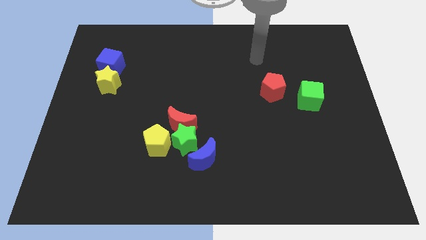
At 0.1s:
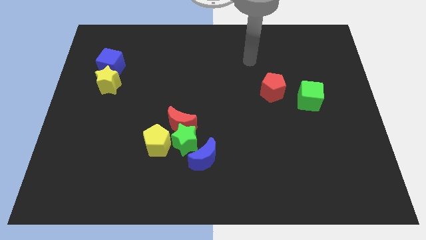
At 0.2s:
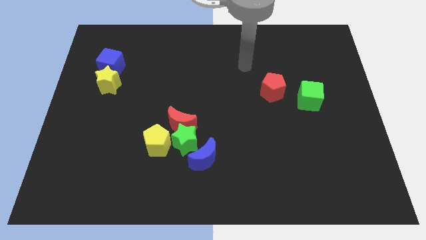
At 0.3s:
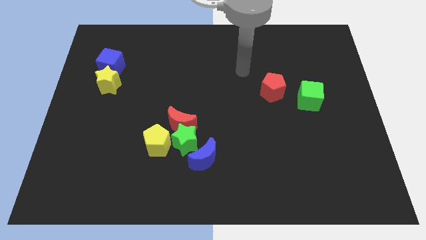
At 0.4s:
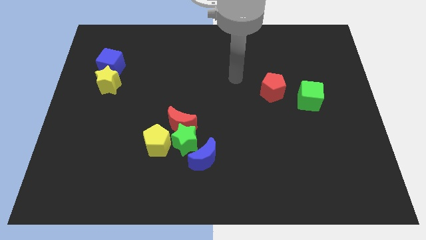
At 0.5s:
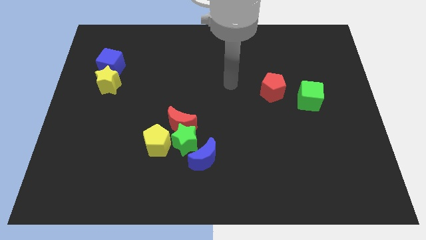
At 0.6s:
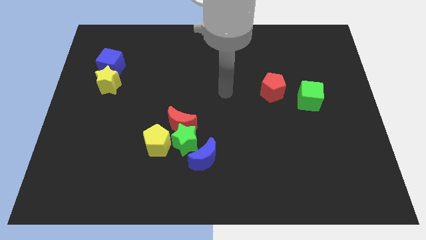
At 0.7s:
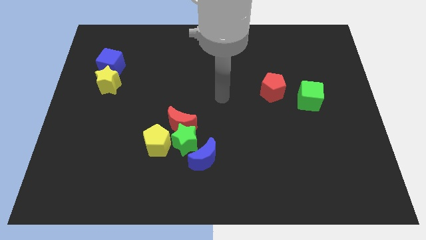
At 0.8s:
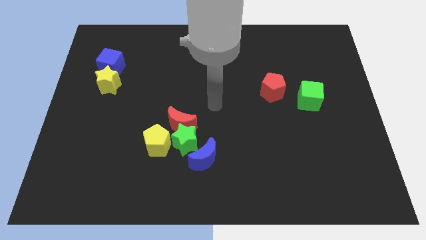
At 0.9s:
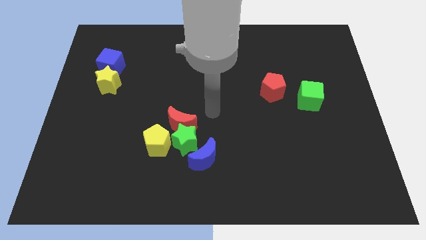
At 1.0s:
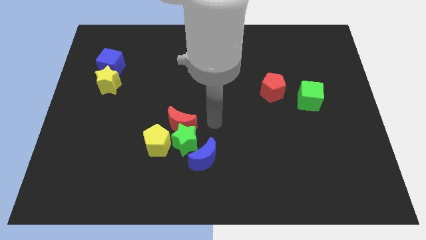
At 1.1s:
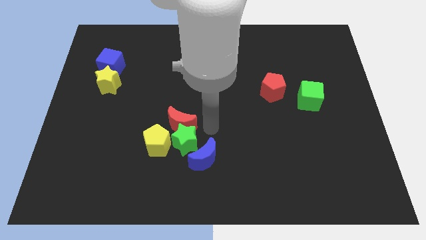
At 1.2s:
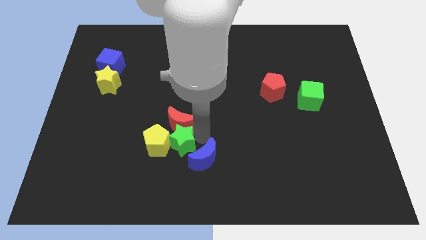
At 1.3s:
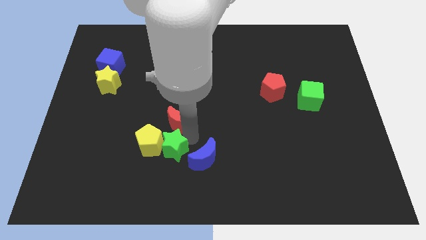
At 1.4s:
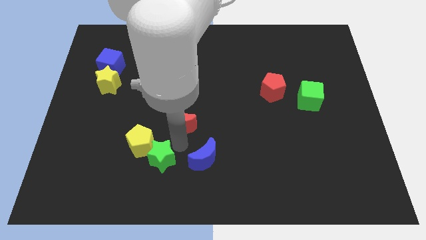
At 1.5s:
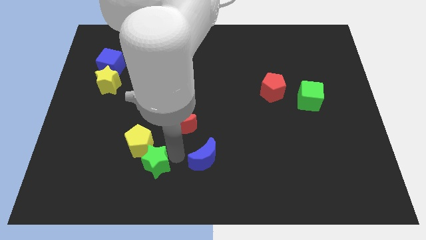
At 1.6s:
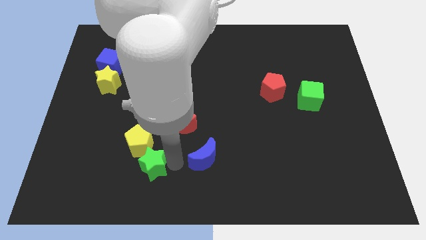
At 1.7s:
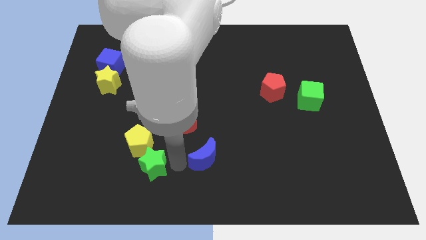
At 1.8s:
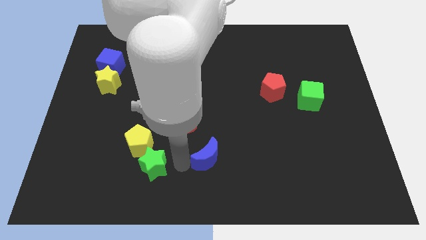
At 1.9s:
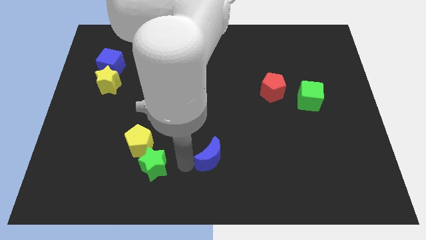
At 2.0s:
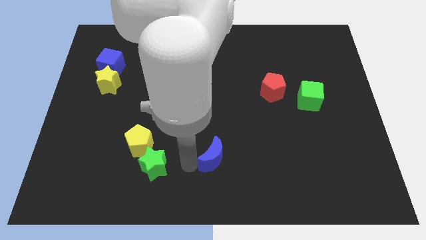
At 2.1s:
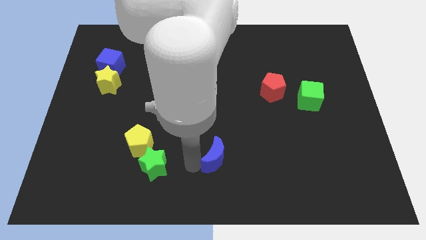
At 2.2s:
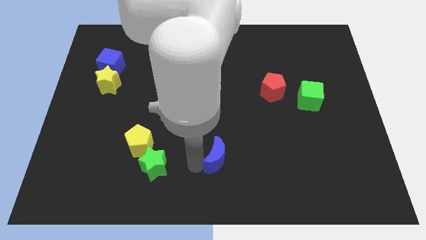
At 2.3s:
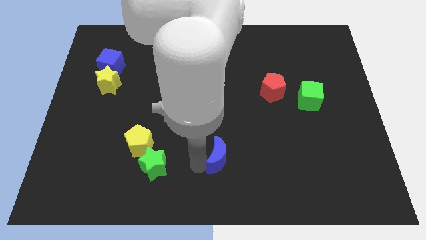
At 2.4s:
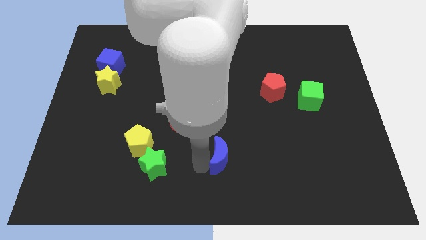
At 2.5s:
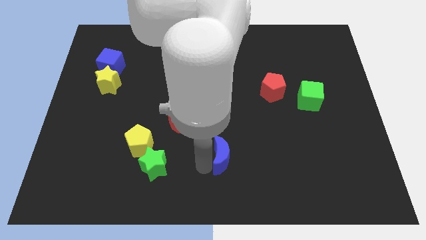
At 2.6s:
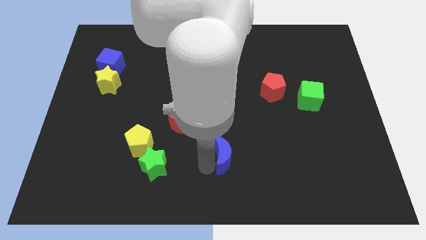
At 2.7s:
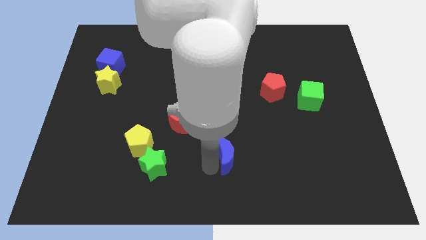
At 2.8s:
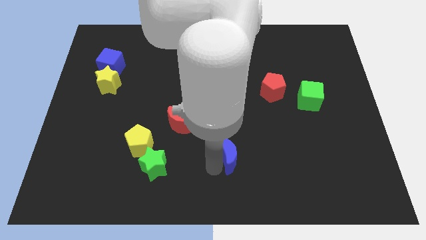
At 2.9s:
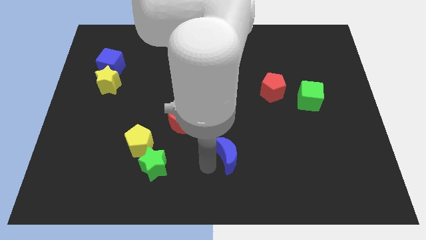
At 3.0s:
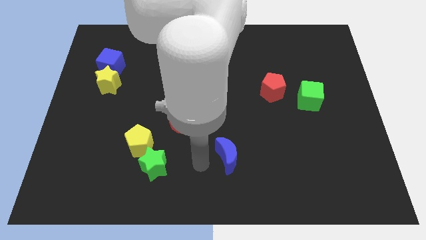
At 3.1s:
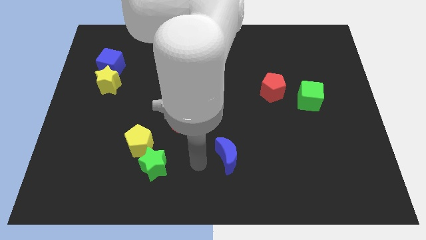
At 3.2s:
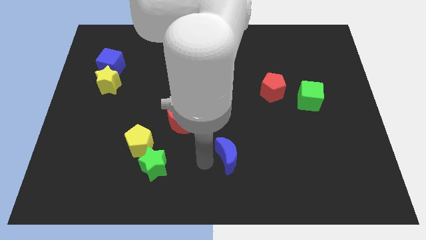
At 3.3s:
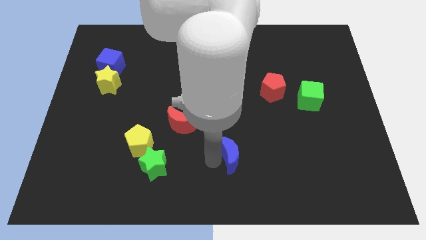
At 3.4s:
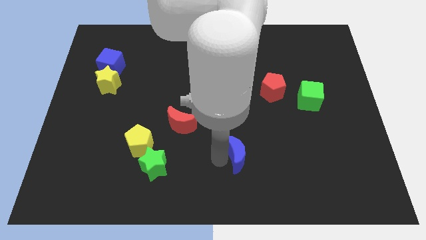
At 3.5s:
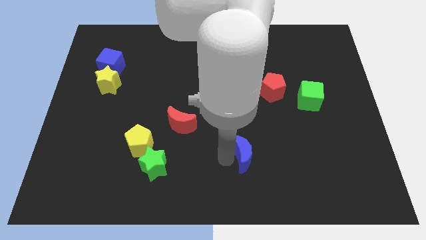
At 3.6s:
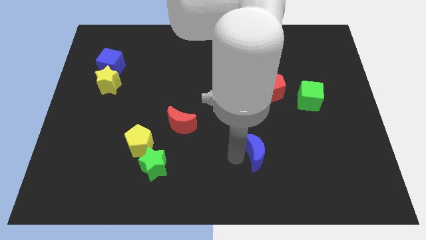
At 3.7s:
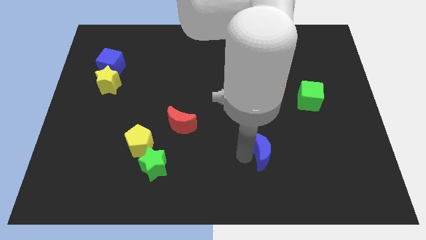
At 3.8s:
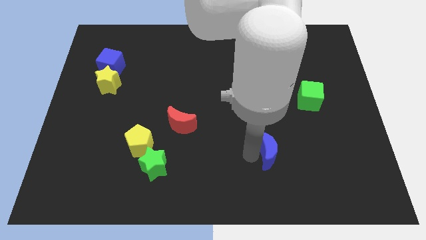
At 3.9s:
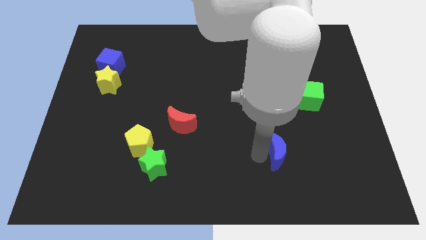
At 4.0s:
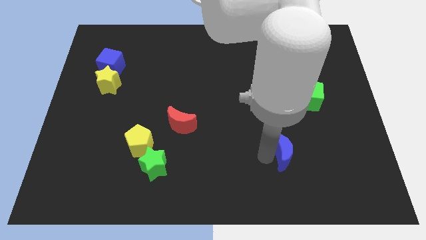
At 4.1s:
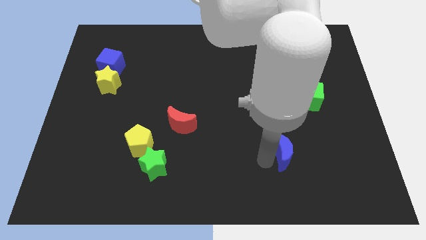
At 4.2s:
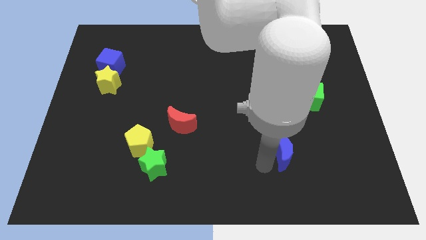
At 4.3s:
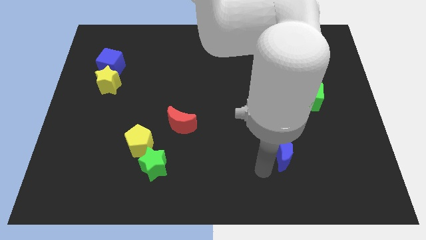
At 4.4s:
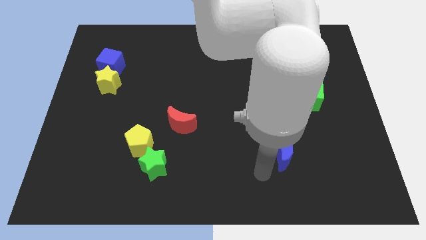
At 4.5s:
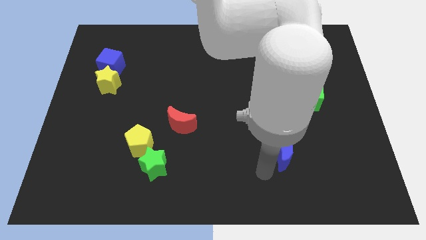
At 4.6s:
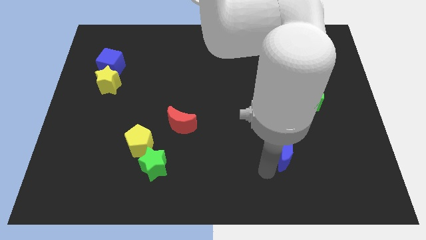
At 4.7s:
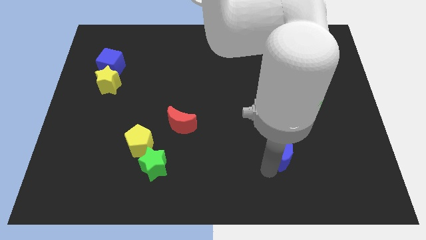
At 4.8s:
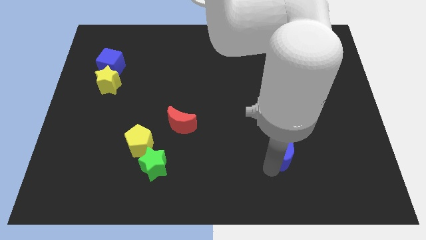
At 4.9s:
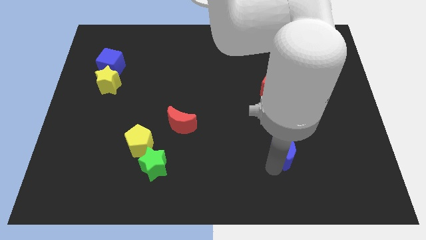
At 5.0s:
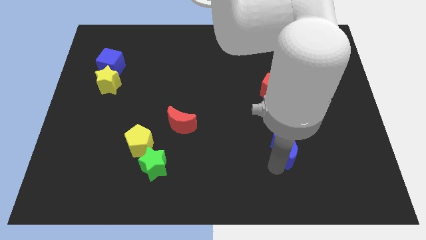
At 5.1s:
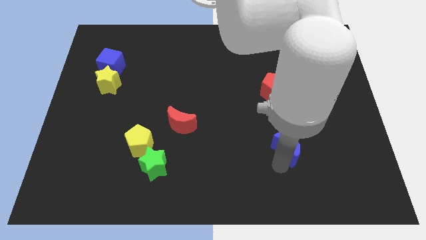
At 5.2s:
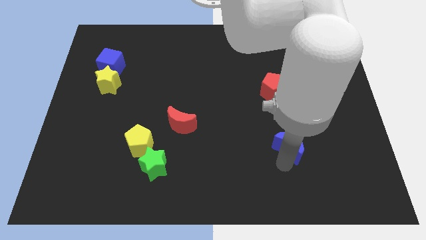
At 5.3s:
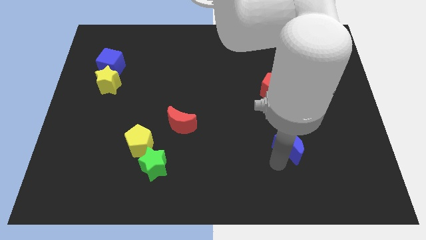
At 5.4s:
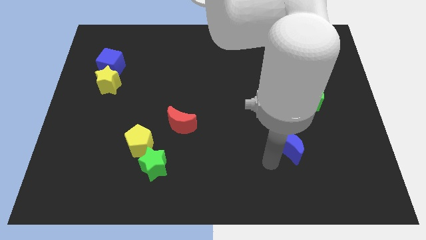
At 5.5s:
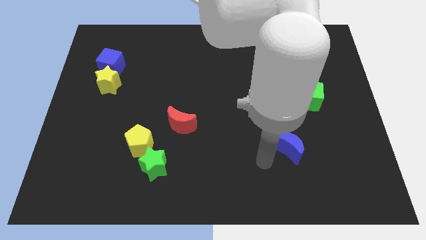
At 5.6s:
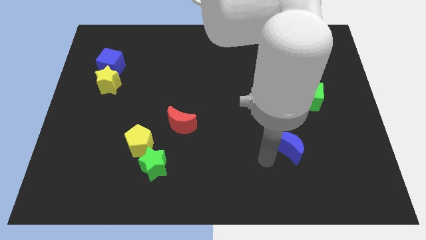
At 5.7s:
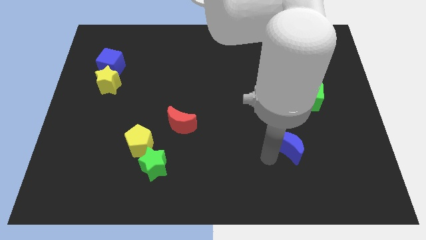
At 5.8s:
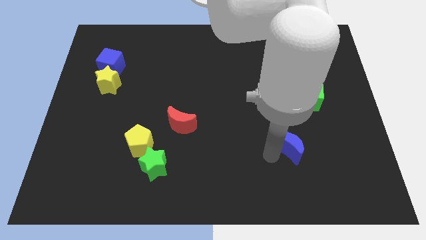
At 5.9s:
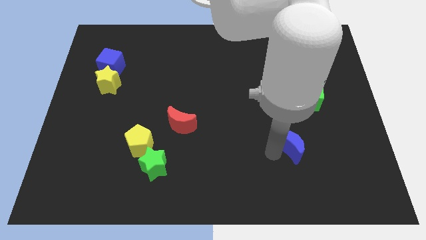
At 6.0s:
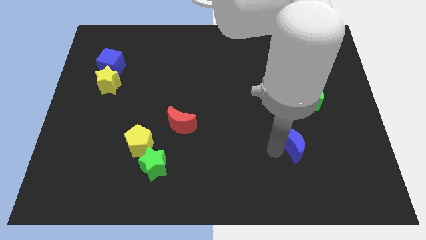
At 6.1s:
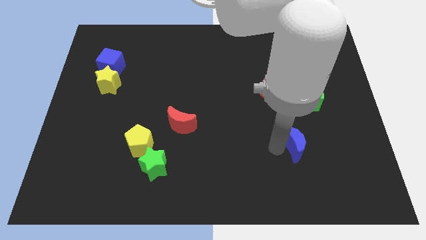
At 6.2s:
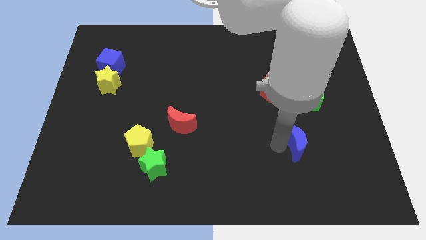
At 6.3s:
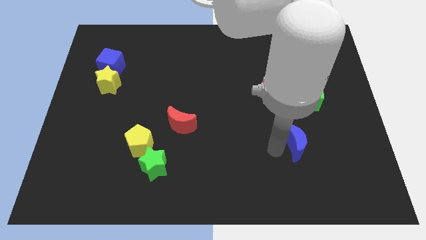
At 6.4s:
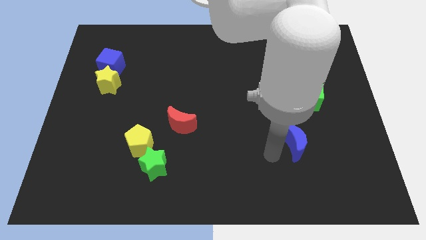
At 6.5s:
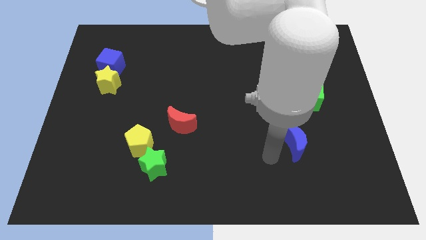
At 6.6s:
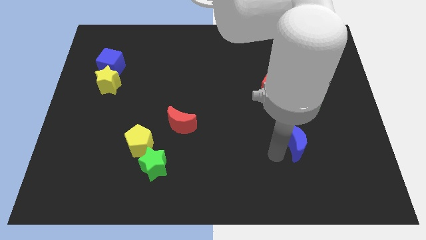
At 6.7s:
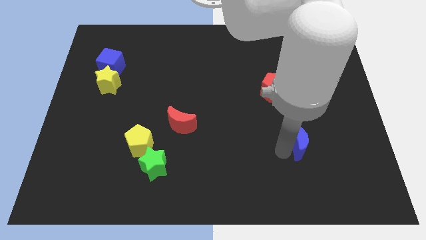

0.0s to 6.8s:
slide the blue moon to the bottom side of the green cube
